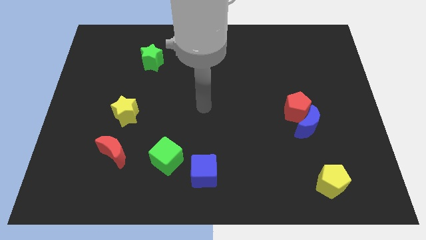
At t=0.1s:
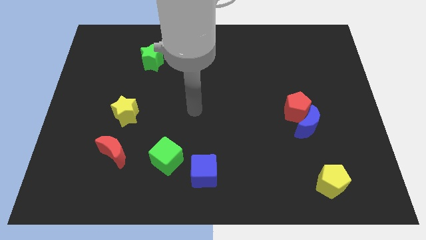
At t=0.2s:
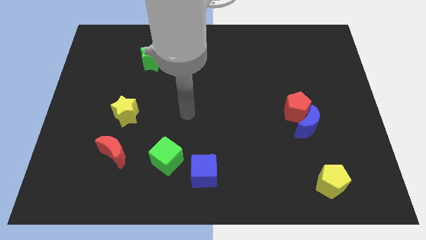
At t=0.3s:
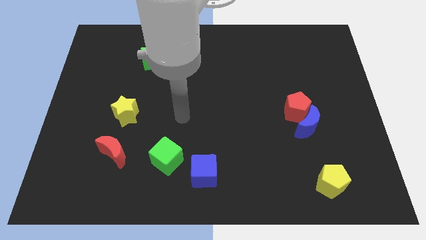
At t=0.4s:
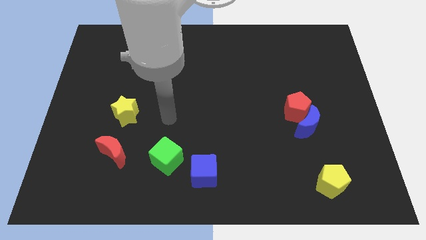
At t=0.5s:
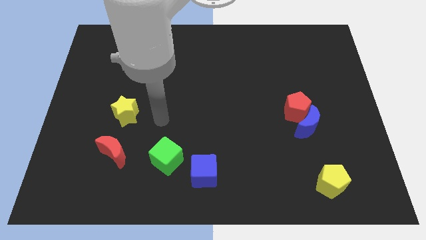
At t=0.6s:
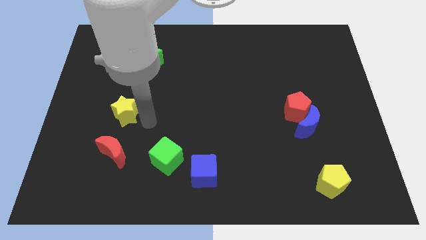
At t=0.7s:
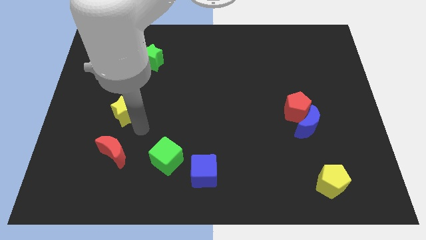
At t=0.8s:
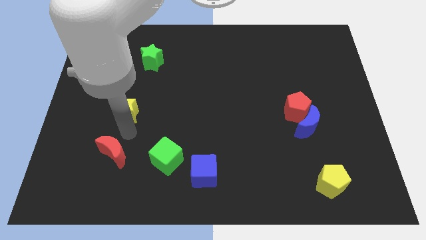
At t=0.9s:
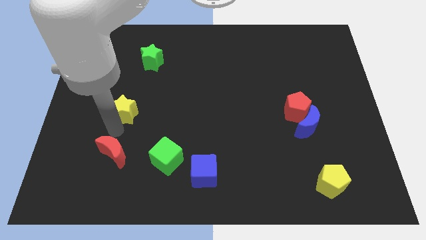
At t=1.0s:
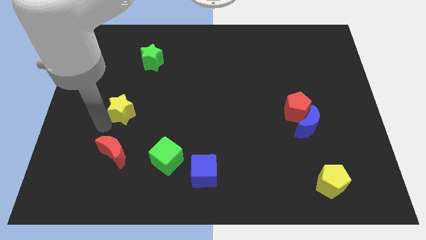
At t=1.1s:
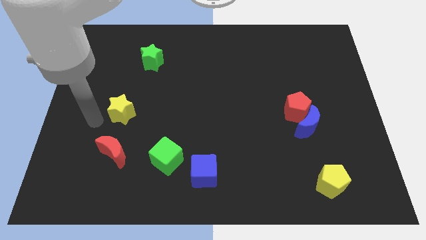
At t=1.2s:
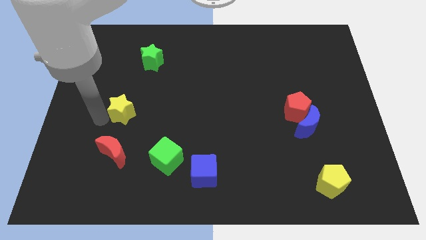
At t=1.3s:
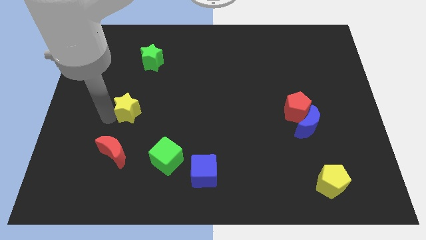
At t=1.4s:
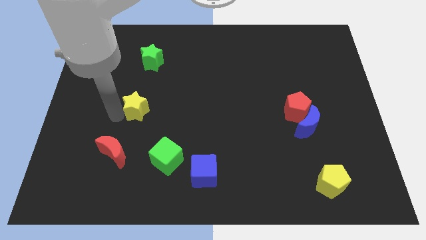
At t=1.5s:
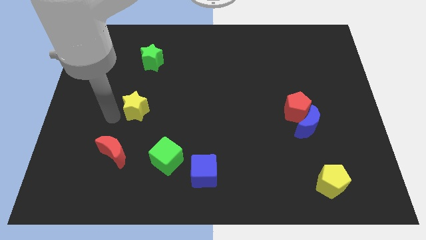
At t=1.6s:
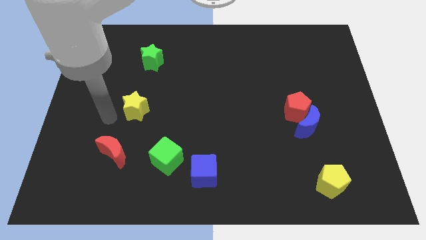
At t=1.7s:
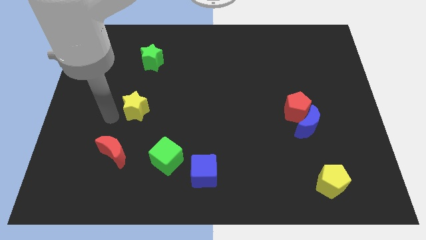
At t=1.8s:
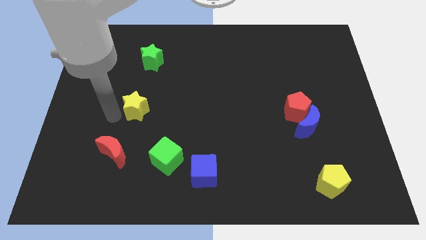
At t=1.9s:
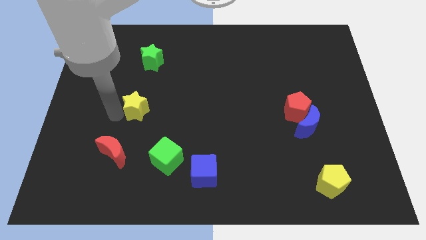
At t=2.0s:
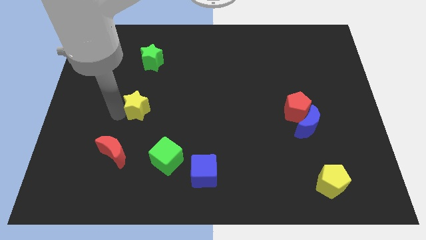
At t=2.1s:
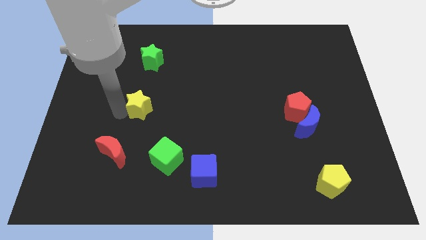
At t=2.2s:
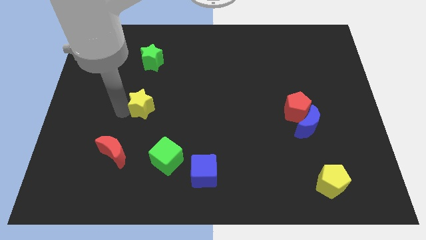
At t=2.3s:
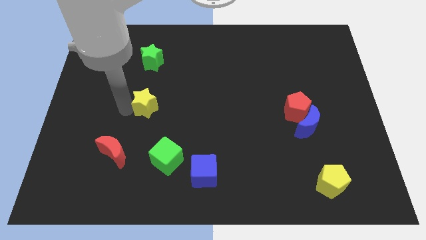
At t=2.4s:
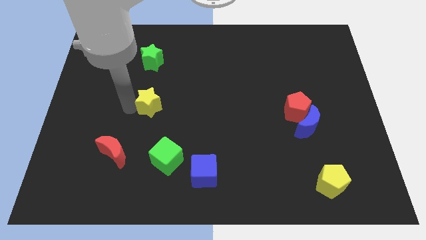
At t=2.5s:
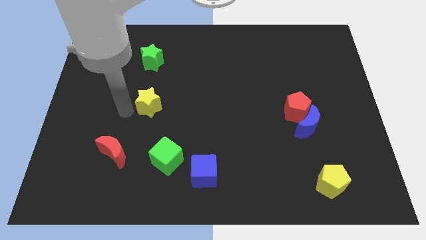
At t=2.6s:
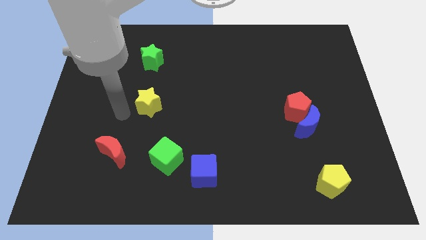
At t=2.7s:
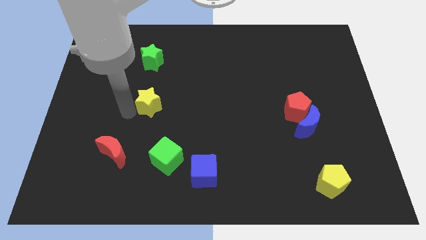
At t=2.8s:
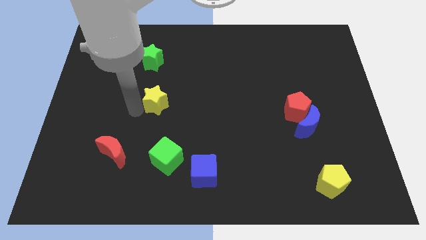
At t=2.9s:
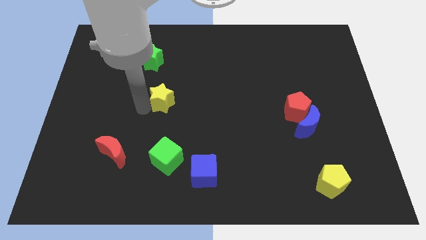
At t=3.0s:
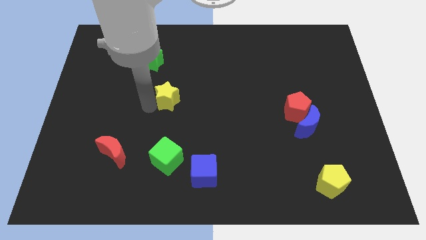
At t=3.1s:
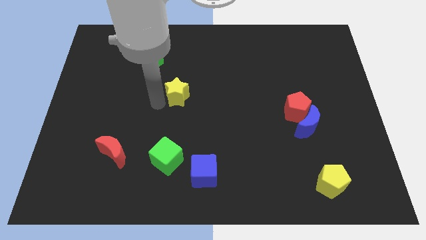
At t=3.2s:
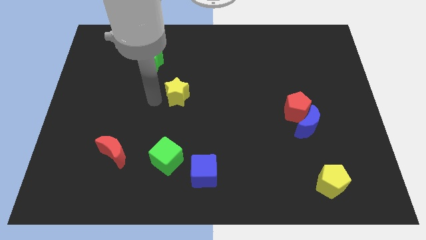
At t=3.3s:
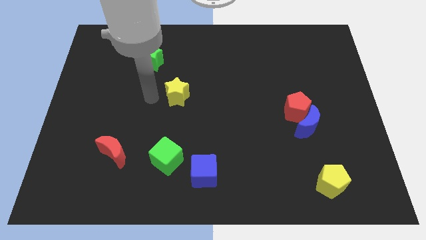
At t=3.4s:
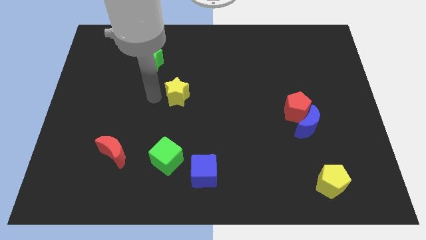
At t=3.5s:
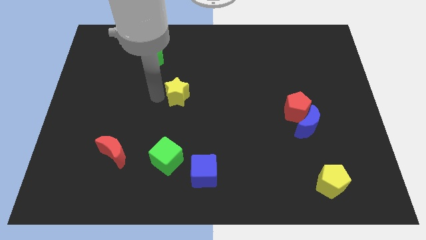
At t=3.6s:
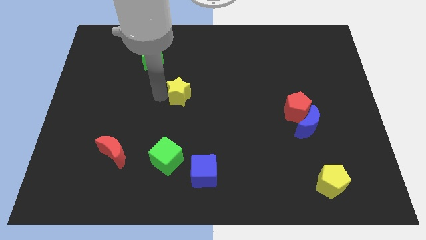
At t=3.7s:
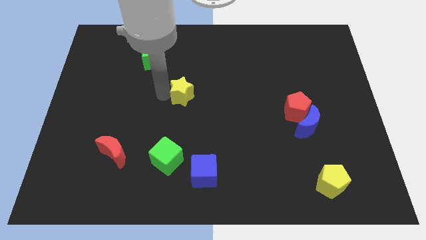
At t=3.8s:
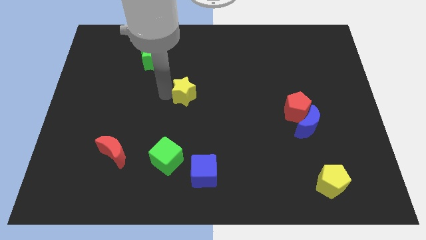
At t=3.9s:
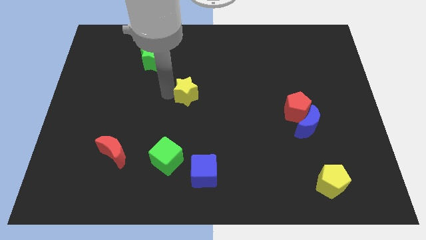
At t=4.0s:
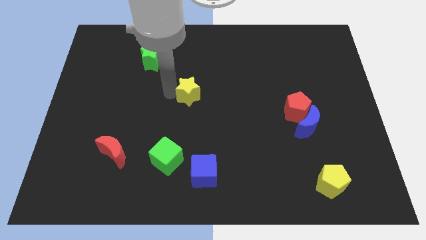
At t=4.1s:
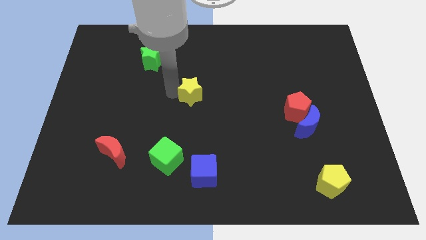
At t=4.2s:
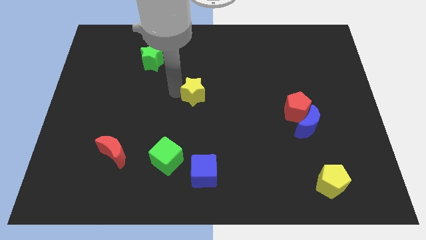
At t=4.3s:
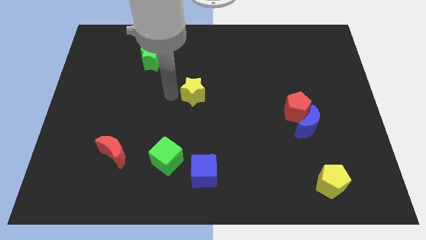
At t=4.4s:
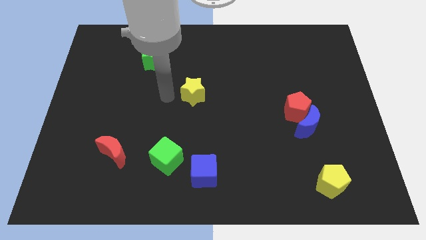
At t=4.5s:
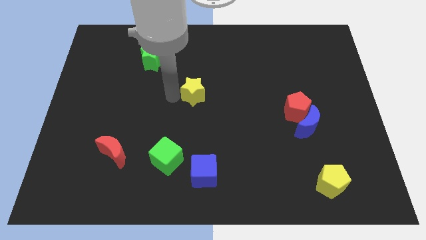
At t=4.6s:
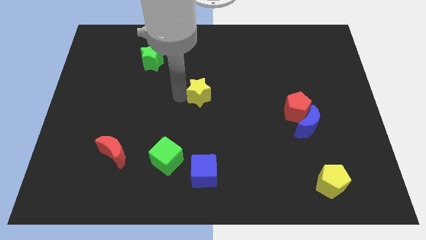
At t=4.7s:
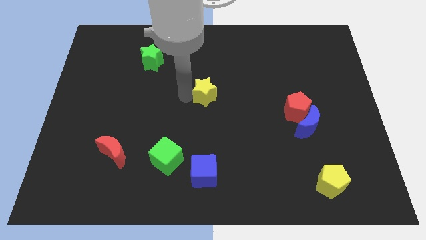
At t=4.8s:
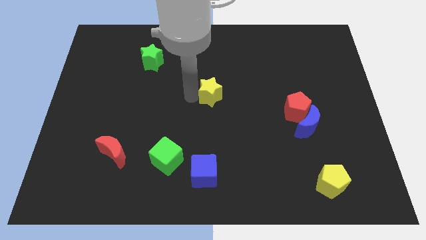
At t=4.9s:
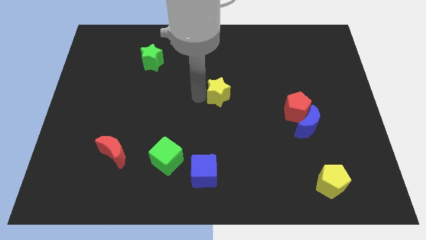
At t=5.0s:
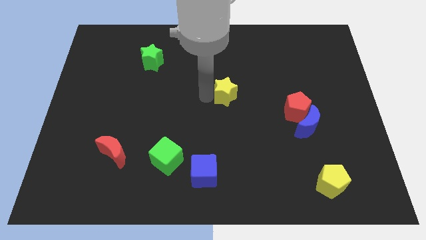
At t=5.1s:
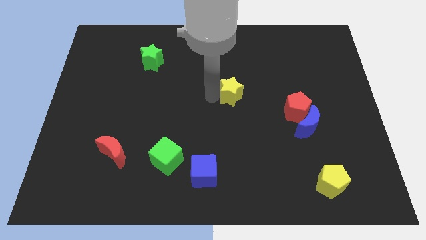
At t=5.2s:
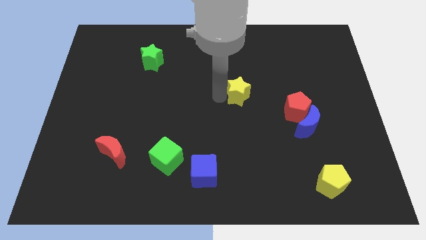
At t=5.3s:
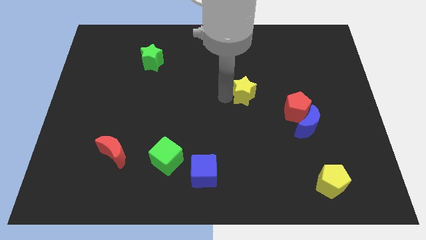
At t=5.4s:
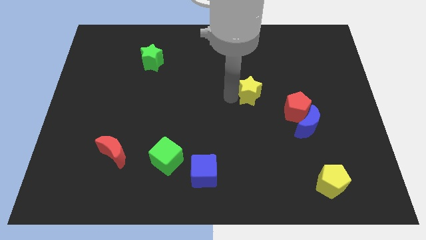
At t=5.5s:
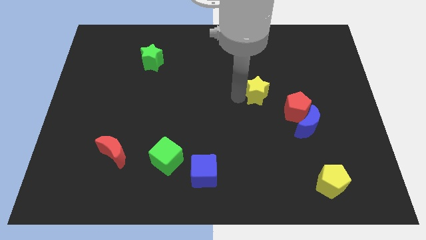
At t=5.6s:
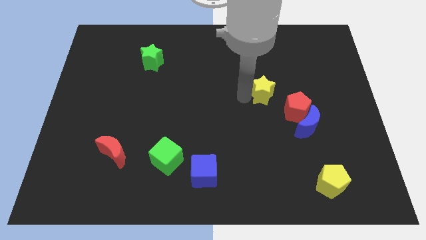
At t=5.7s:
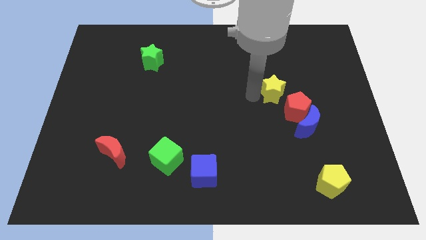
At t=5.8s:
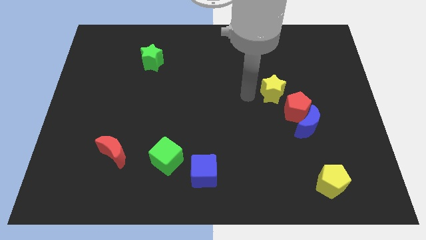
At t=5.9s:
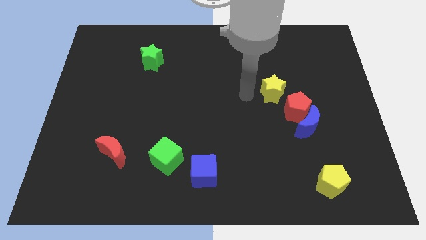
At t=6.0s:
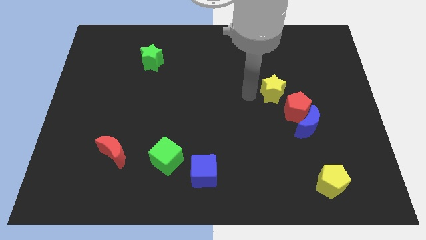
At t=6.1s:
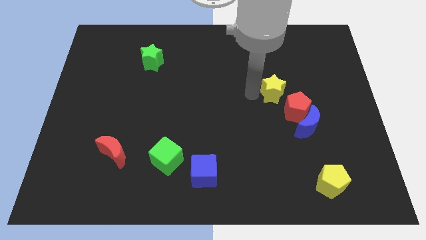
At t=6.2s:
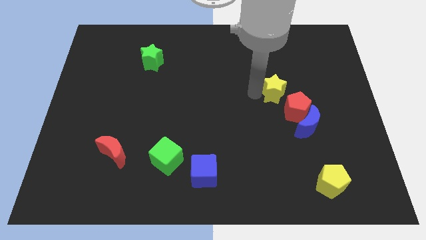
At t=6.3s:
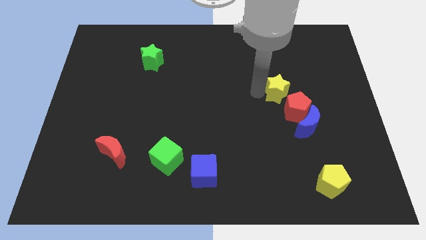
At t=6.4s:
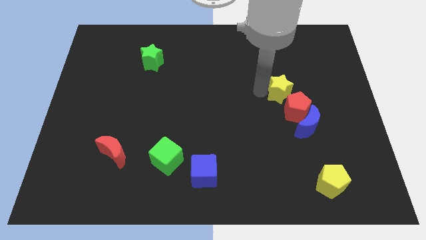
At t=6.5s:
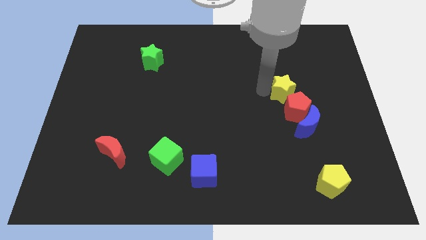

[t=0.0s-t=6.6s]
push the yellow star to the top side of the blue moon
